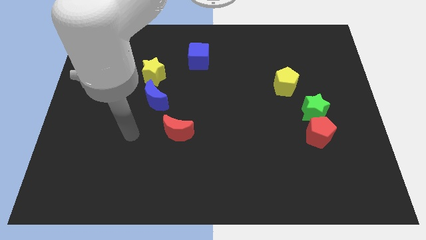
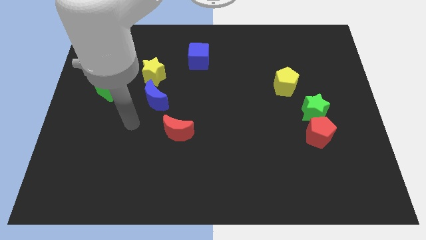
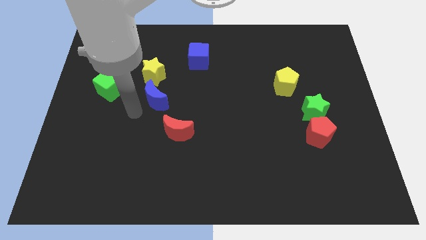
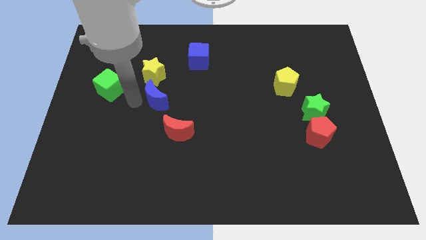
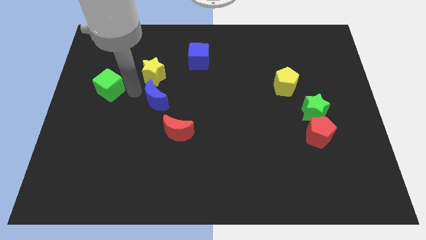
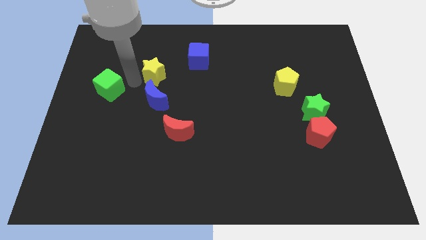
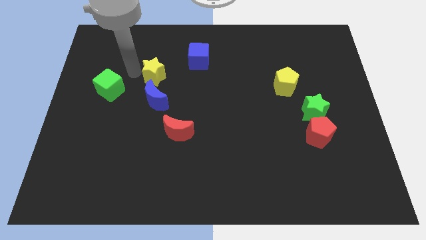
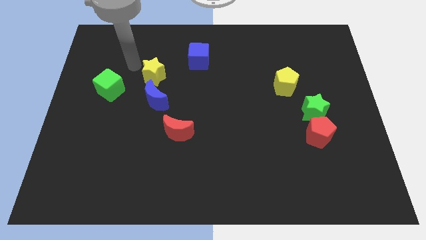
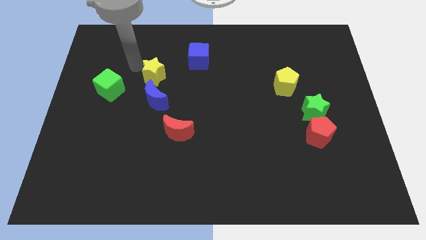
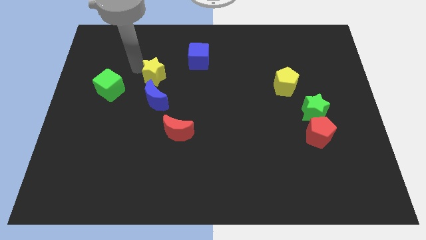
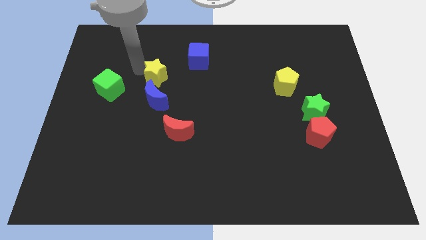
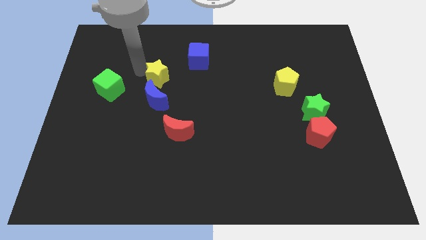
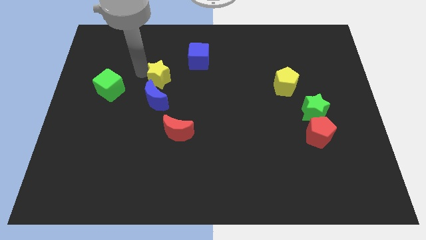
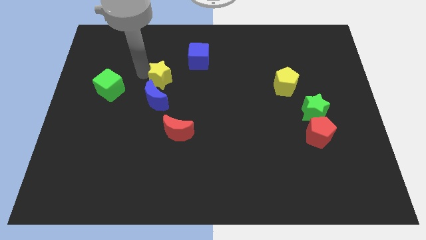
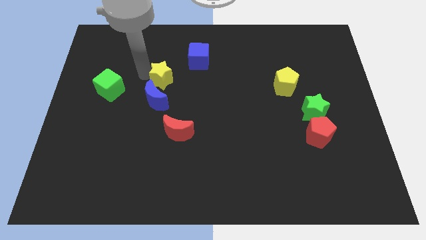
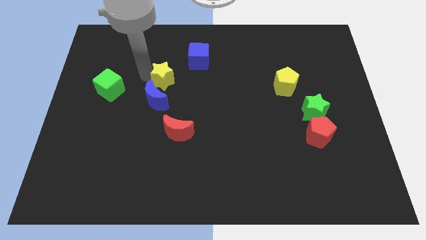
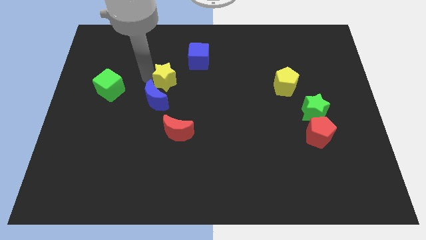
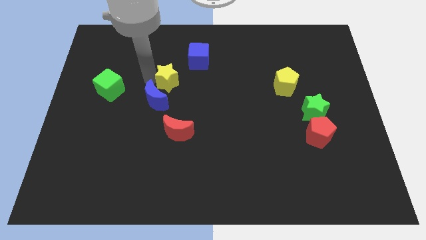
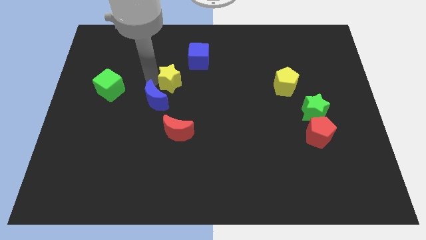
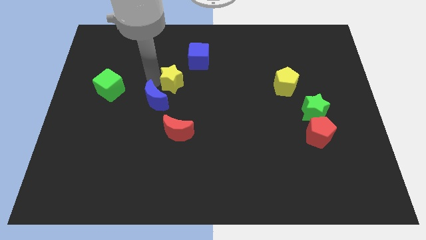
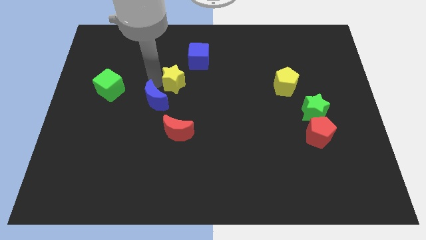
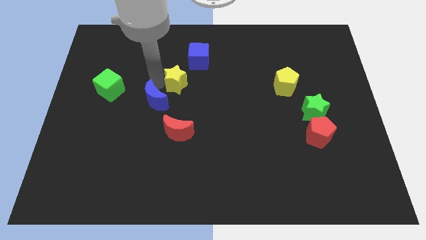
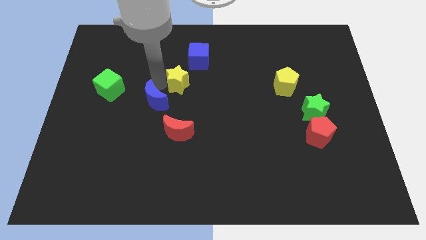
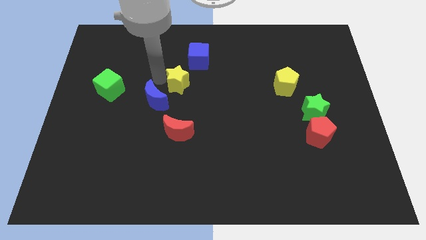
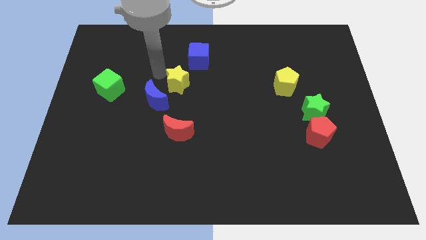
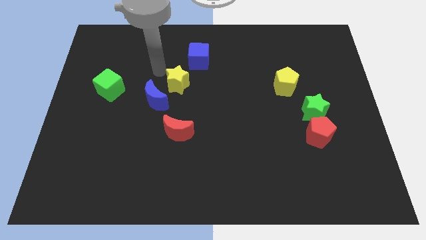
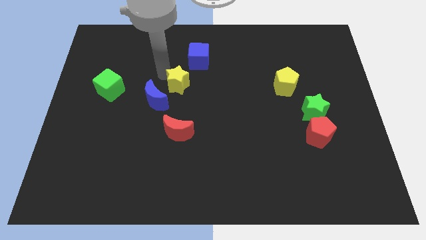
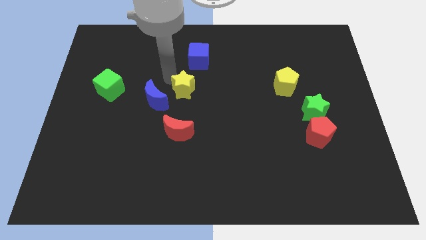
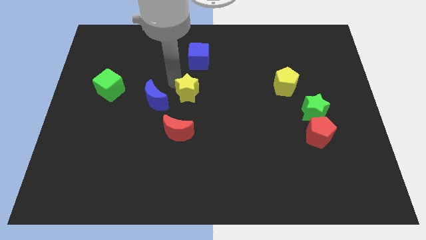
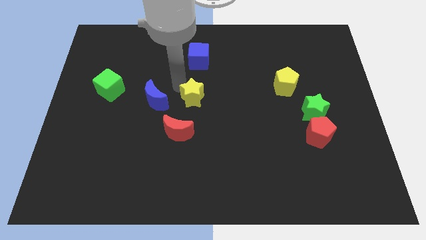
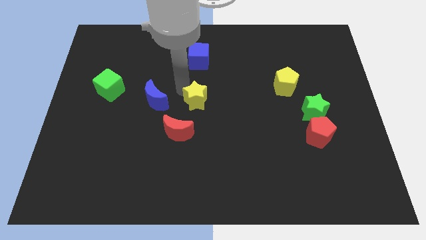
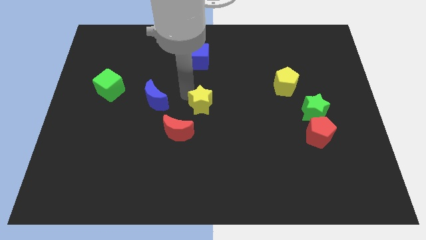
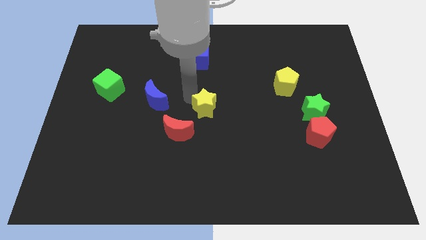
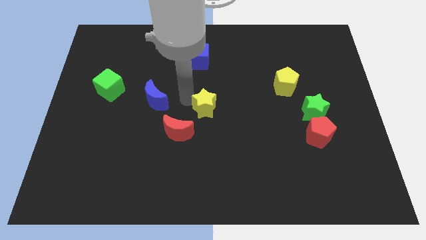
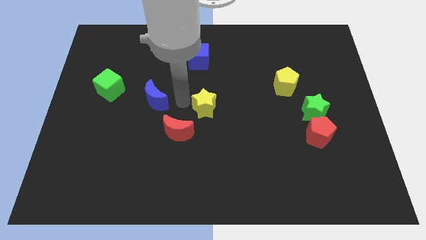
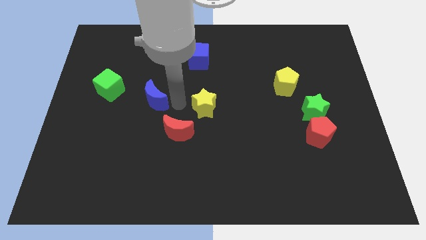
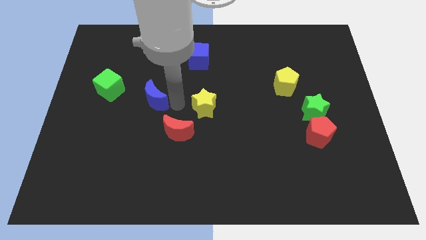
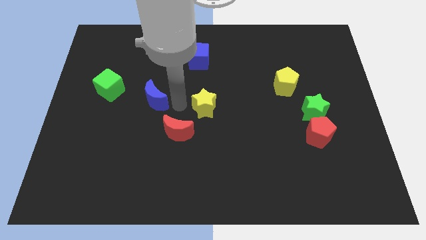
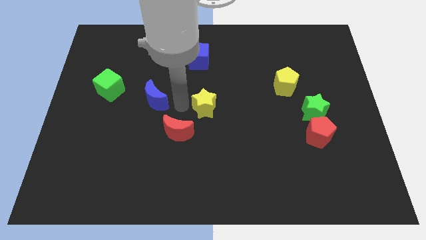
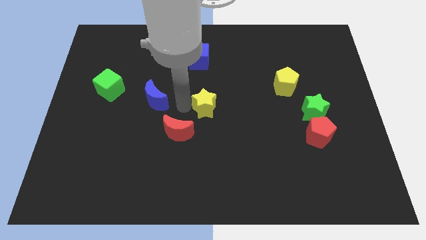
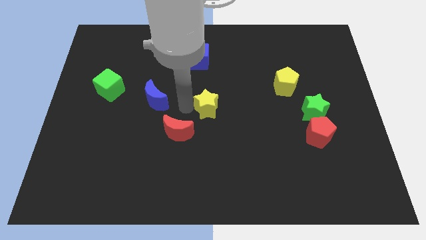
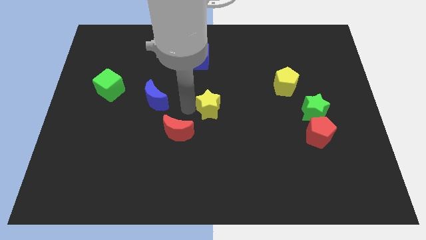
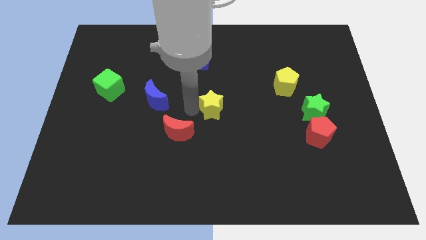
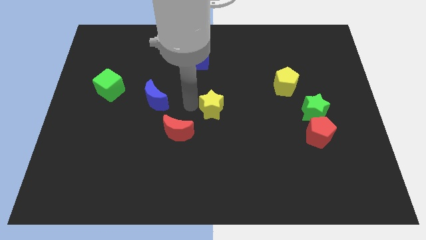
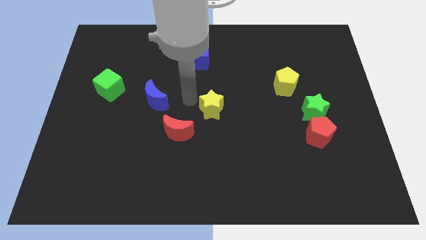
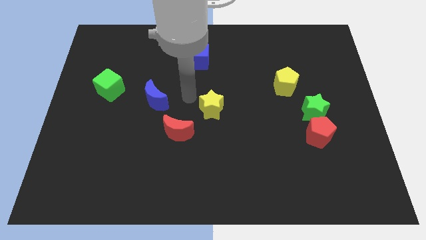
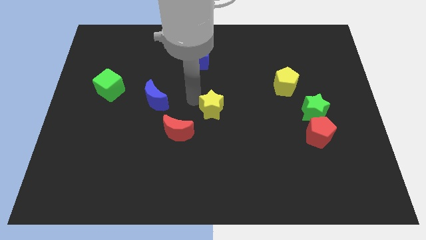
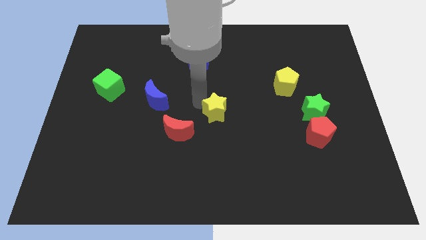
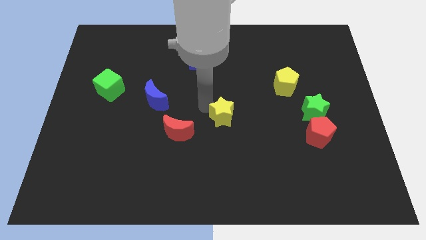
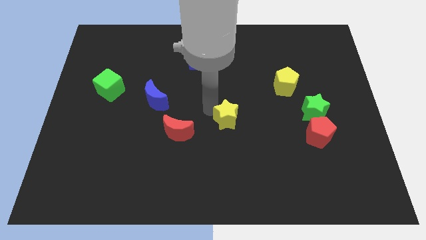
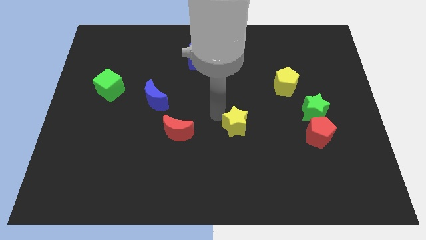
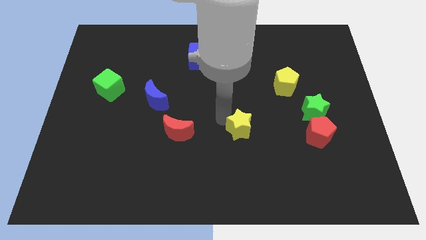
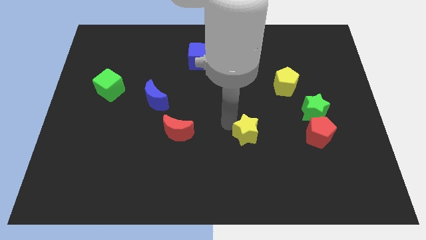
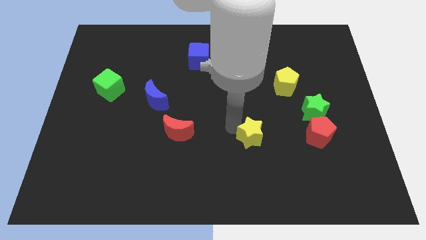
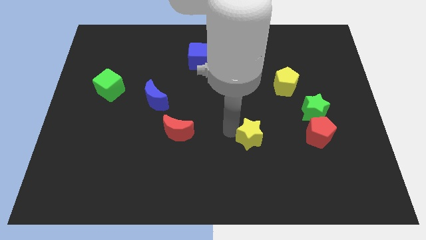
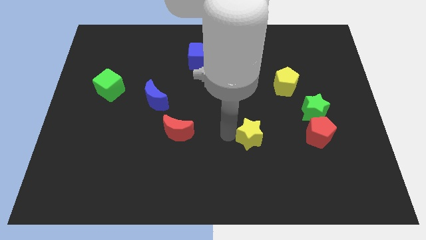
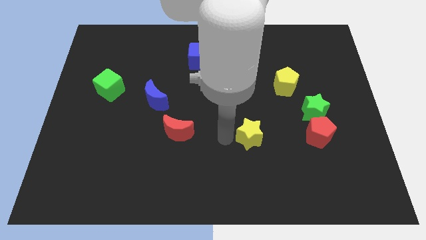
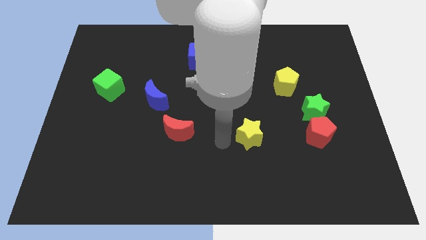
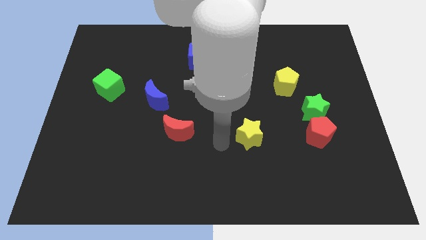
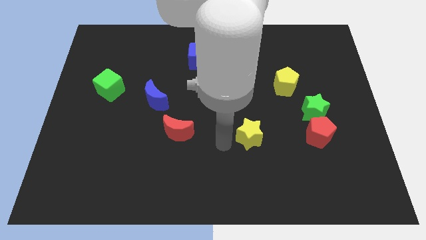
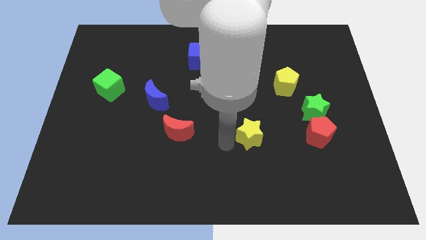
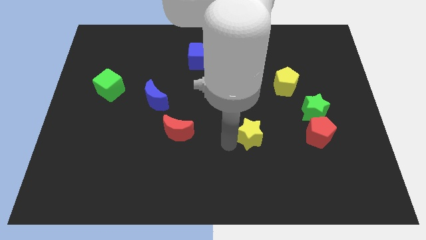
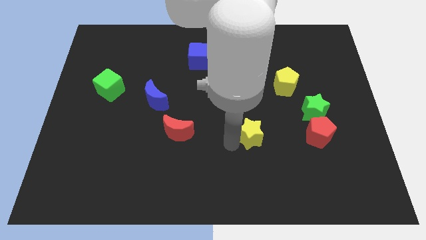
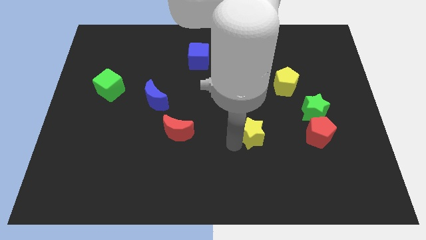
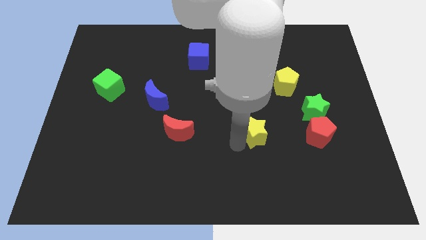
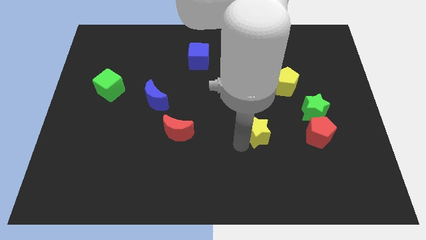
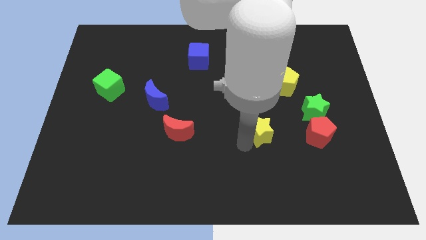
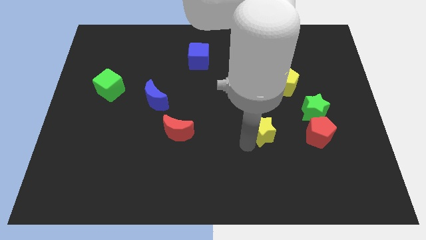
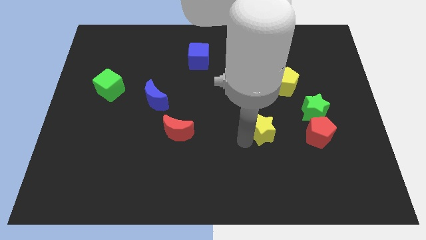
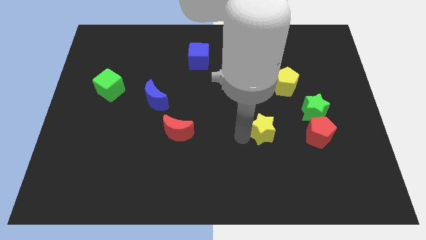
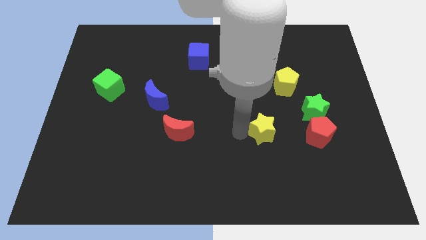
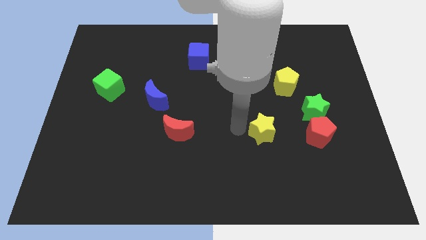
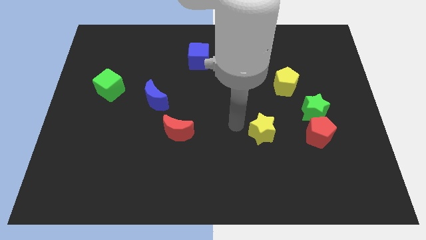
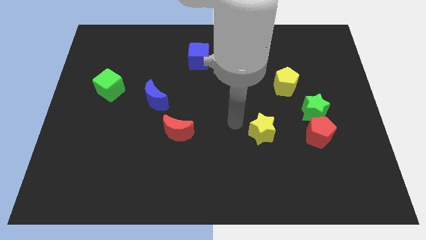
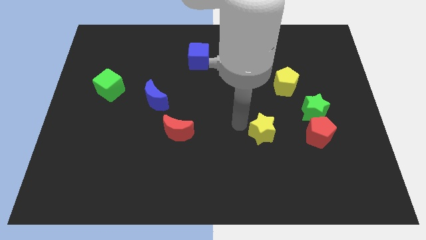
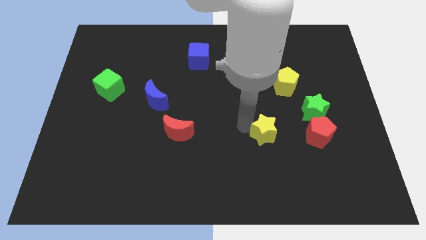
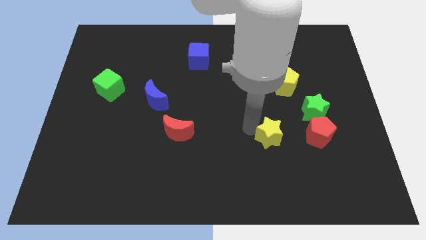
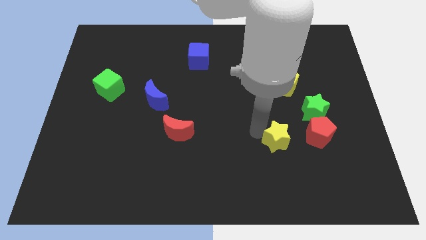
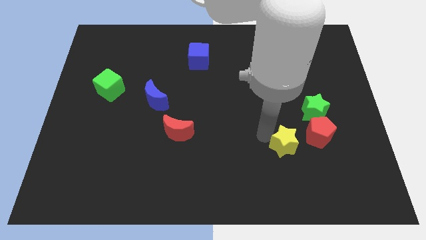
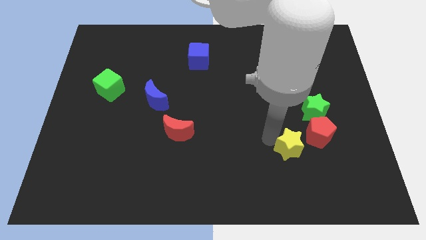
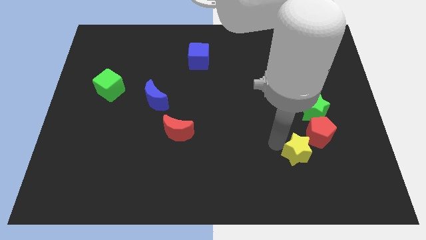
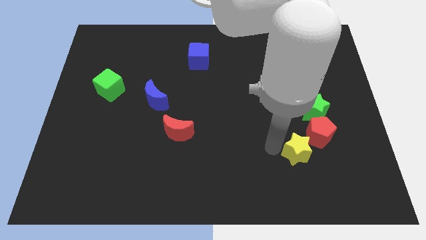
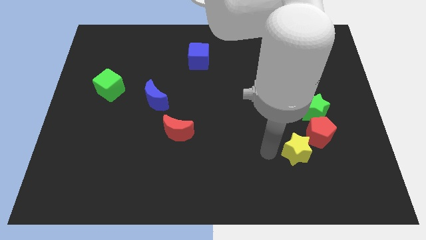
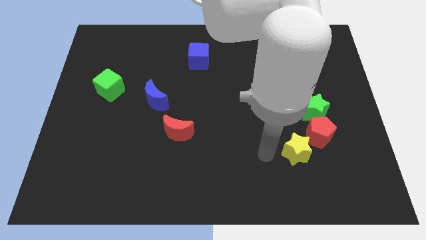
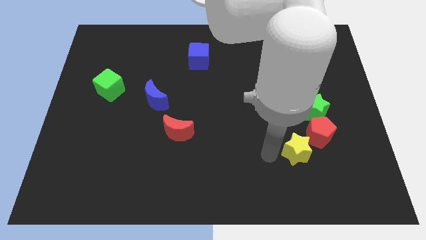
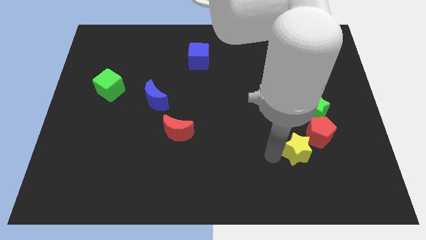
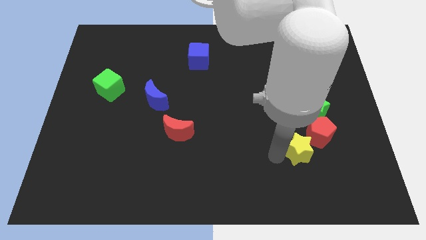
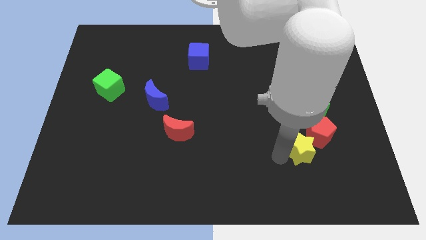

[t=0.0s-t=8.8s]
move the yellow star below the green star
